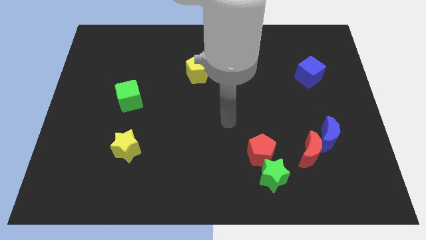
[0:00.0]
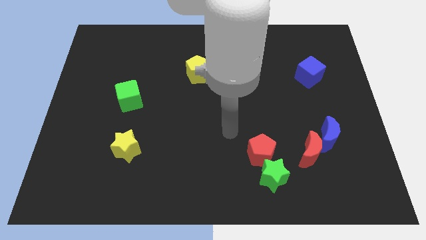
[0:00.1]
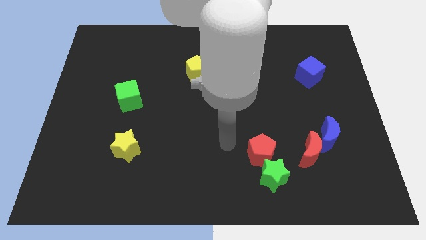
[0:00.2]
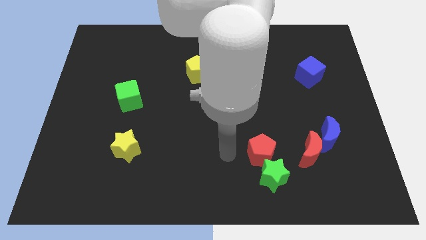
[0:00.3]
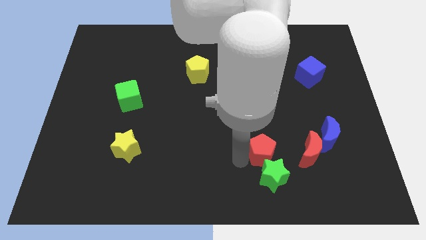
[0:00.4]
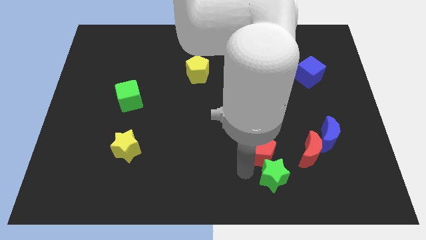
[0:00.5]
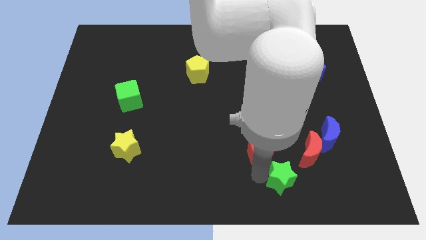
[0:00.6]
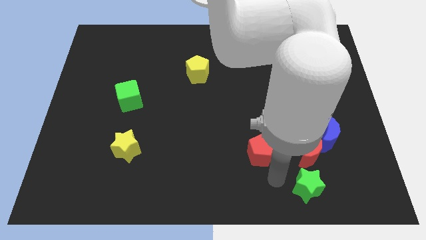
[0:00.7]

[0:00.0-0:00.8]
move the red pentagon away from the green star

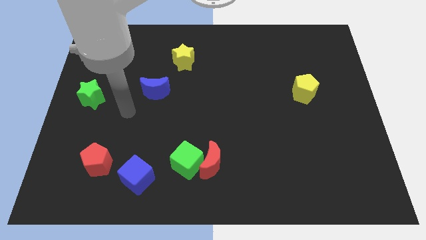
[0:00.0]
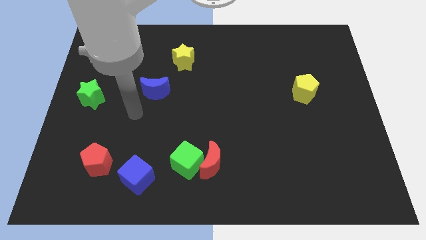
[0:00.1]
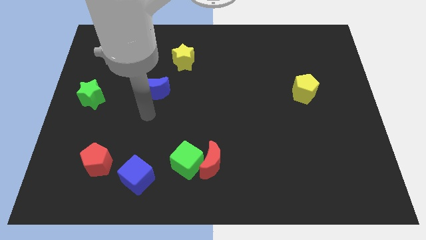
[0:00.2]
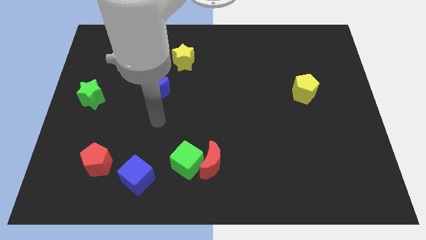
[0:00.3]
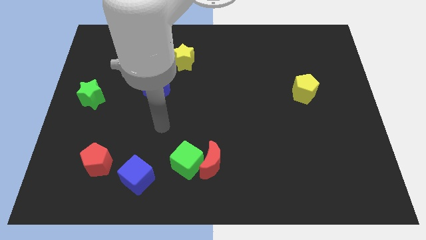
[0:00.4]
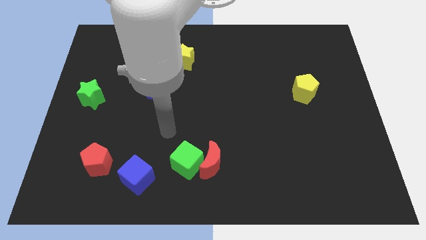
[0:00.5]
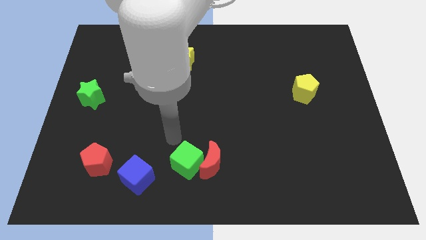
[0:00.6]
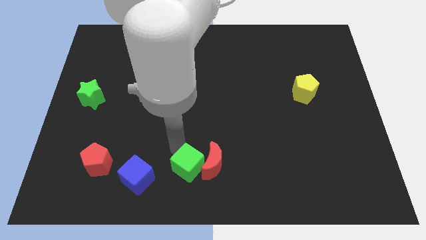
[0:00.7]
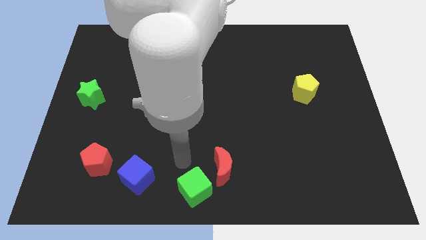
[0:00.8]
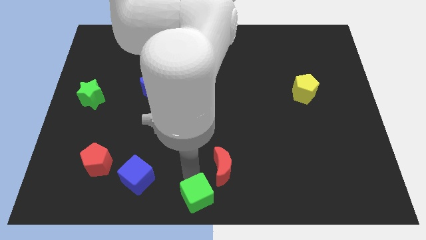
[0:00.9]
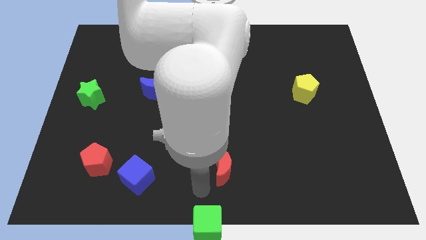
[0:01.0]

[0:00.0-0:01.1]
move the red moon away from the green cube

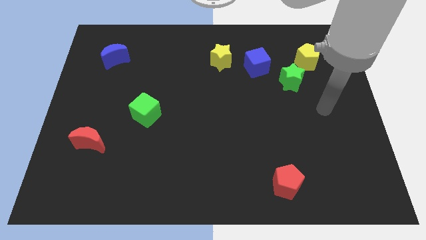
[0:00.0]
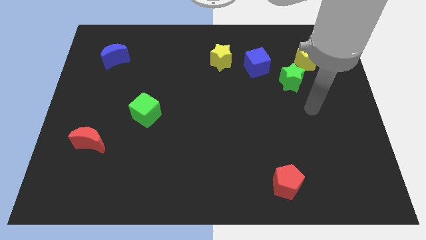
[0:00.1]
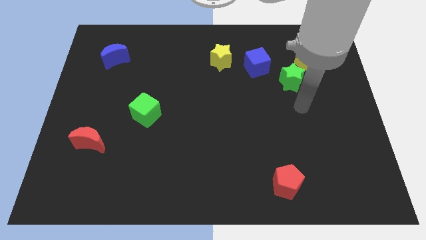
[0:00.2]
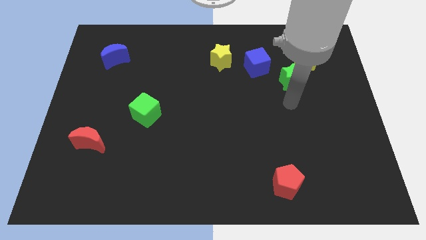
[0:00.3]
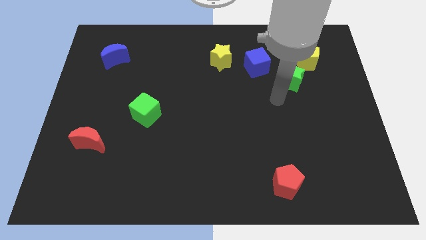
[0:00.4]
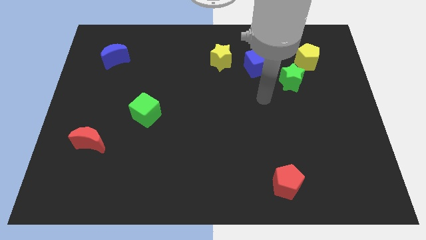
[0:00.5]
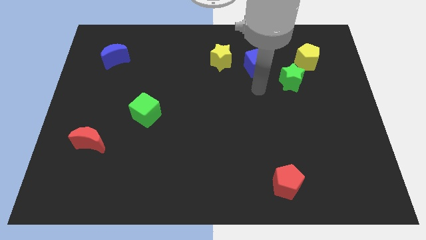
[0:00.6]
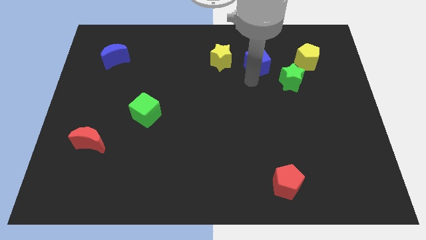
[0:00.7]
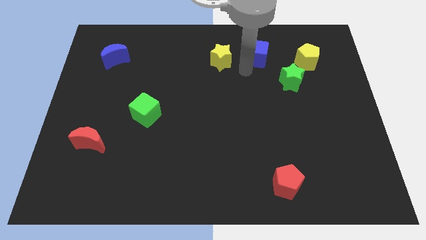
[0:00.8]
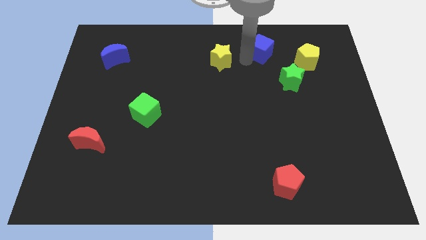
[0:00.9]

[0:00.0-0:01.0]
move the yellow star away from the blue cube

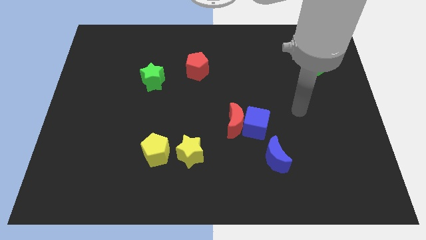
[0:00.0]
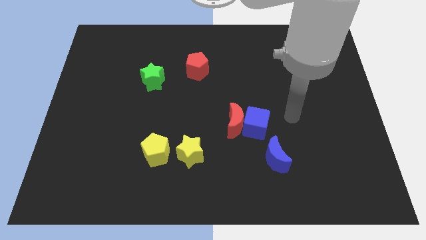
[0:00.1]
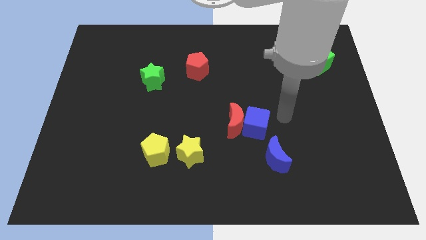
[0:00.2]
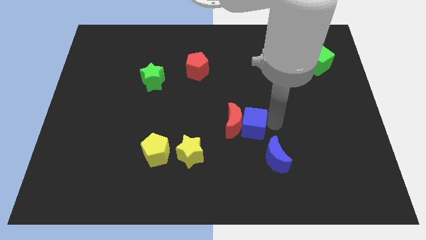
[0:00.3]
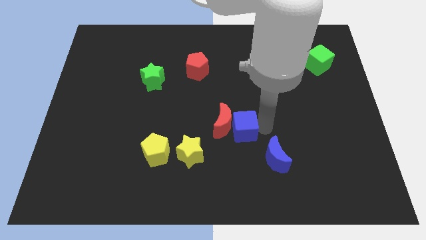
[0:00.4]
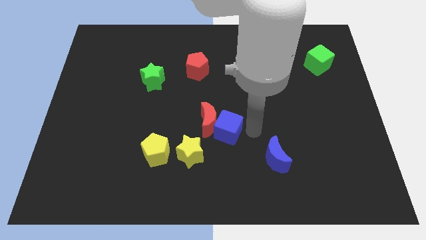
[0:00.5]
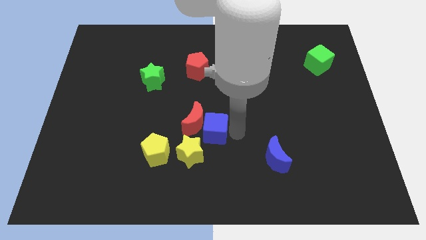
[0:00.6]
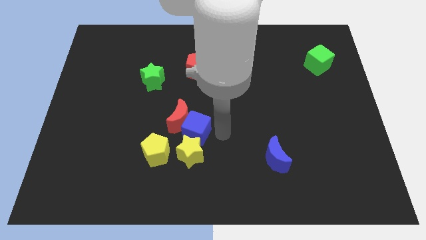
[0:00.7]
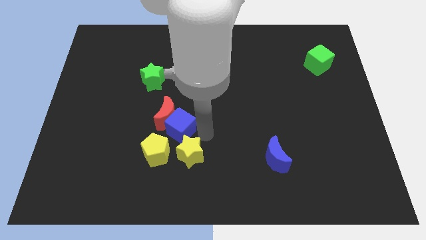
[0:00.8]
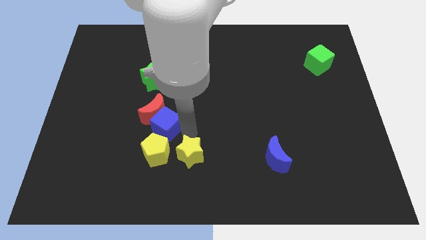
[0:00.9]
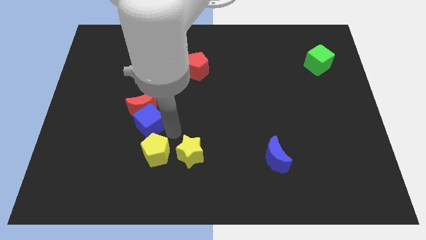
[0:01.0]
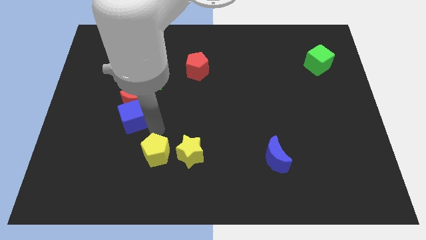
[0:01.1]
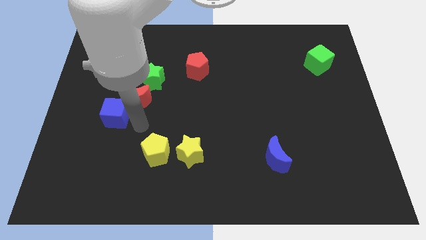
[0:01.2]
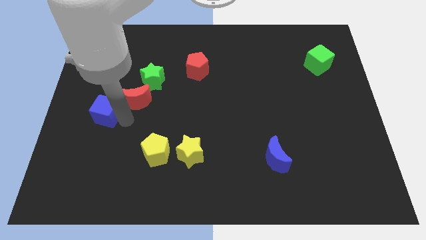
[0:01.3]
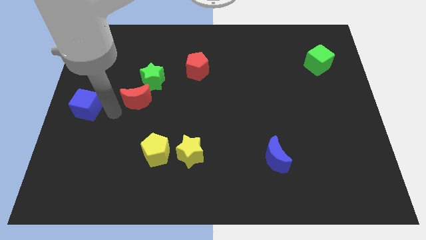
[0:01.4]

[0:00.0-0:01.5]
separate the red moon from the blue cube

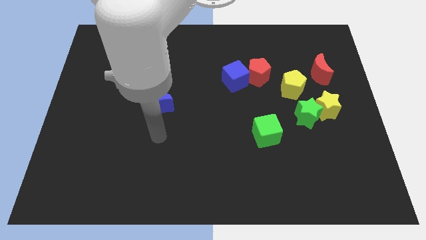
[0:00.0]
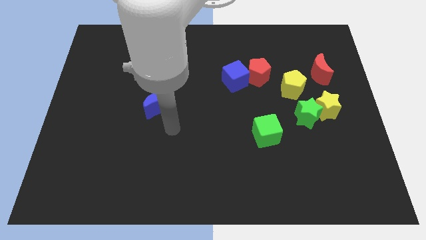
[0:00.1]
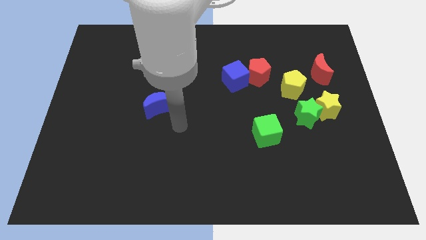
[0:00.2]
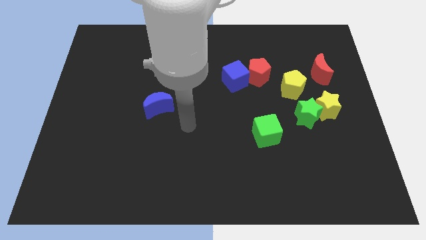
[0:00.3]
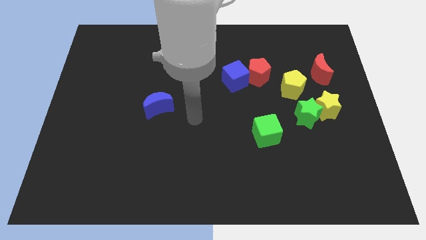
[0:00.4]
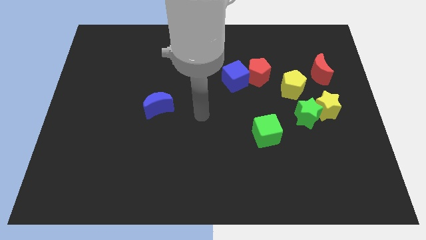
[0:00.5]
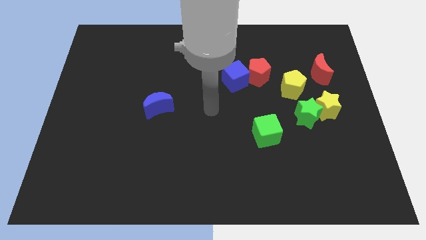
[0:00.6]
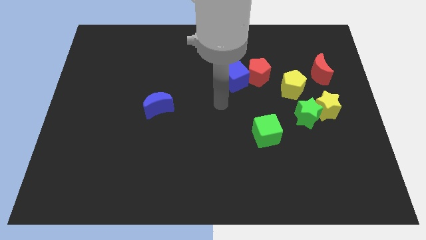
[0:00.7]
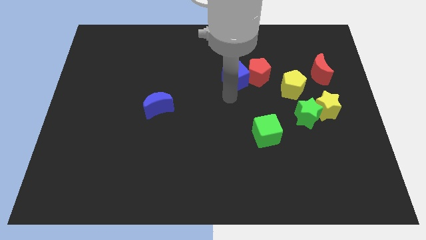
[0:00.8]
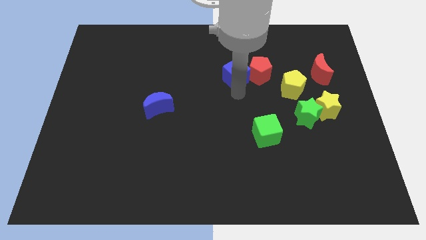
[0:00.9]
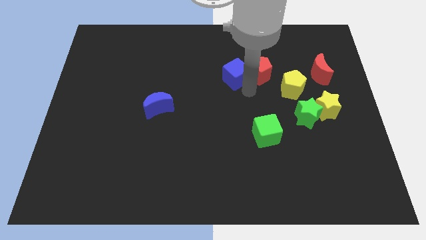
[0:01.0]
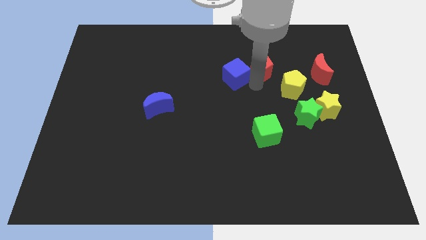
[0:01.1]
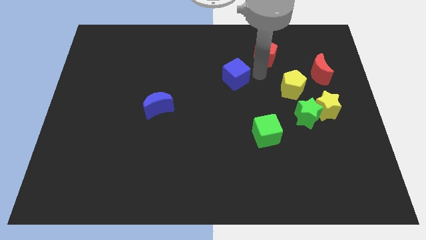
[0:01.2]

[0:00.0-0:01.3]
separate the blue cube from the red pentagon

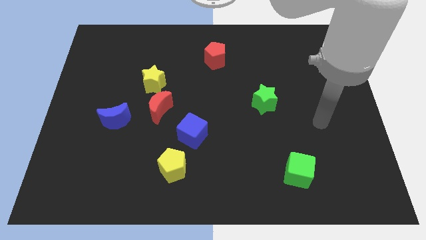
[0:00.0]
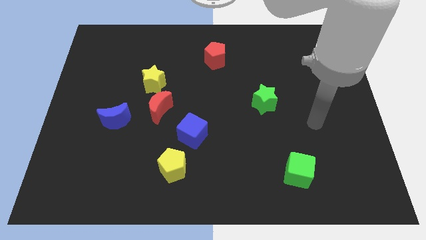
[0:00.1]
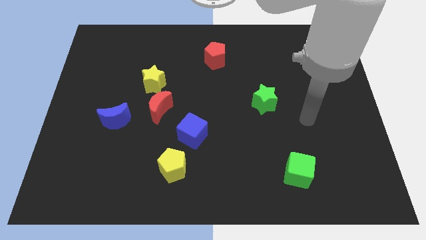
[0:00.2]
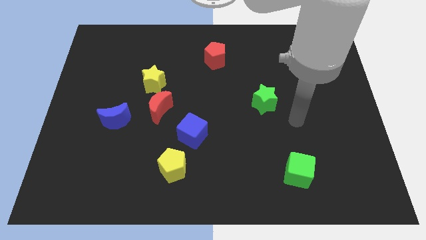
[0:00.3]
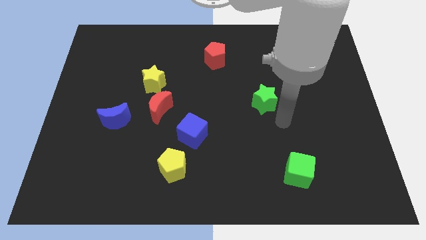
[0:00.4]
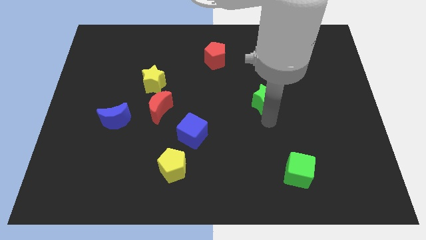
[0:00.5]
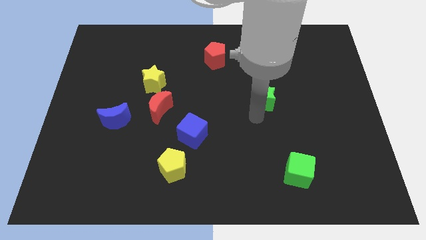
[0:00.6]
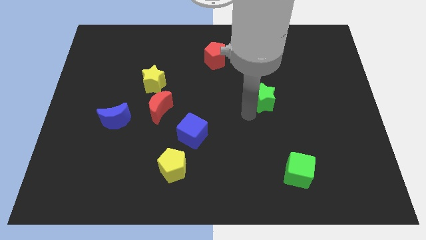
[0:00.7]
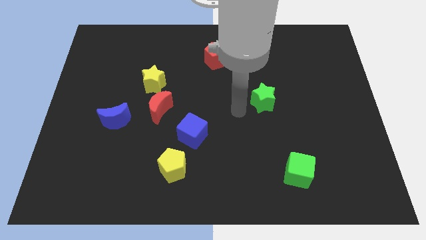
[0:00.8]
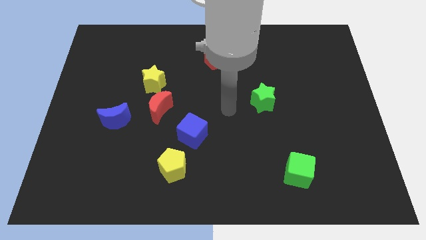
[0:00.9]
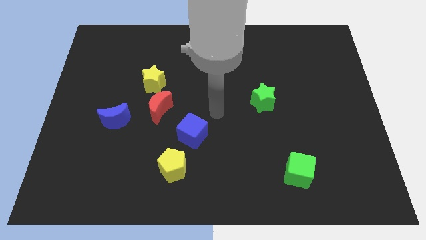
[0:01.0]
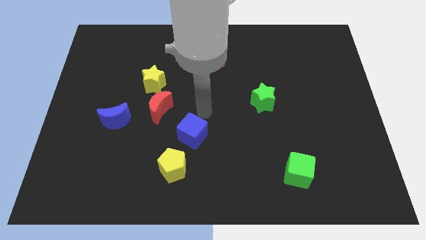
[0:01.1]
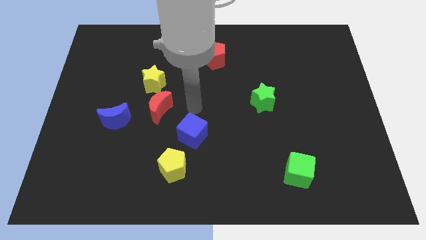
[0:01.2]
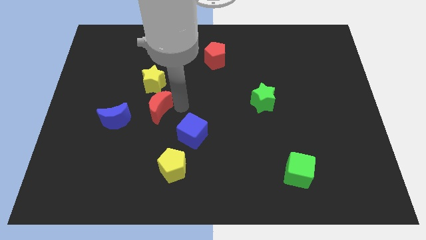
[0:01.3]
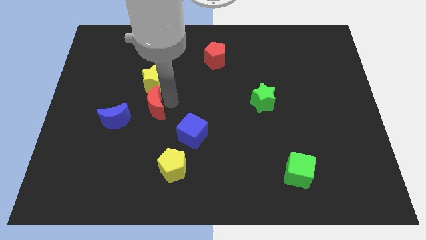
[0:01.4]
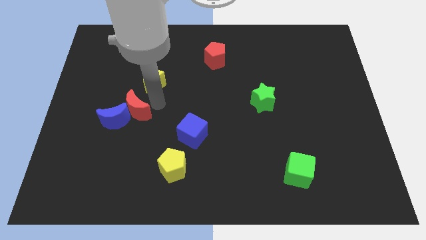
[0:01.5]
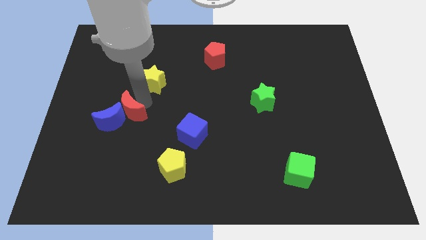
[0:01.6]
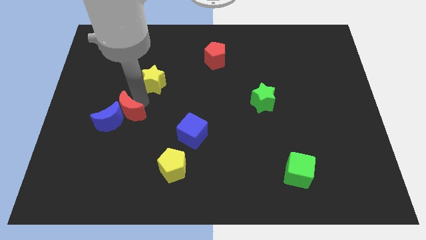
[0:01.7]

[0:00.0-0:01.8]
separate the yellow star from the red moon

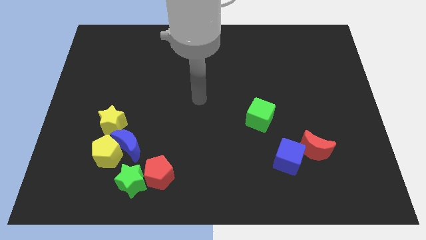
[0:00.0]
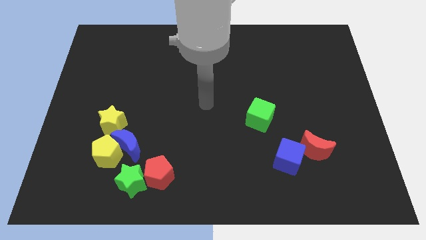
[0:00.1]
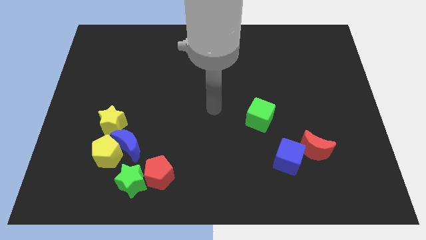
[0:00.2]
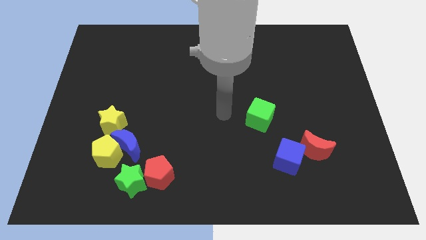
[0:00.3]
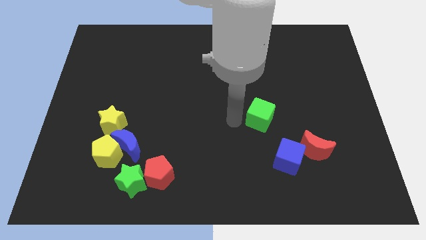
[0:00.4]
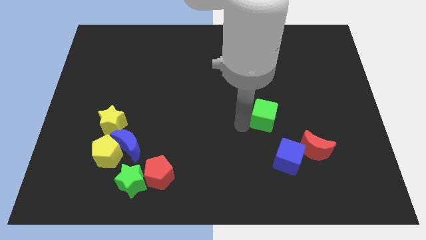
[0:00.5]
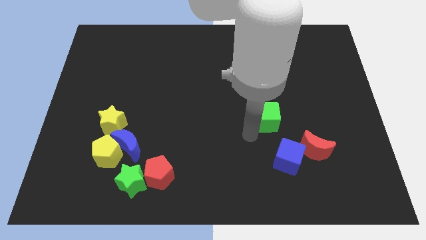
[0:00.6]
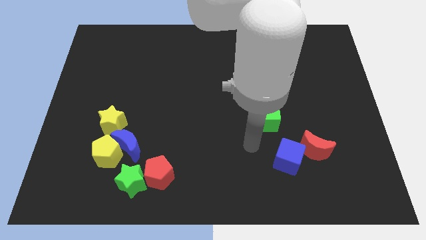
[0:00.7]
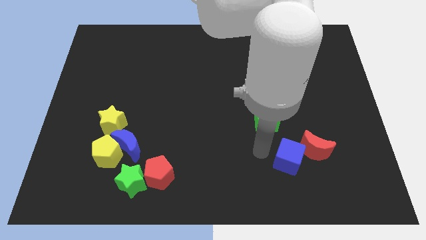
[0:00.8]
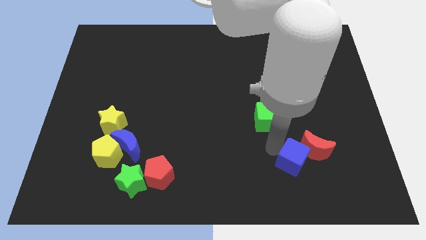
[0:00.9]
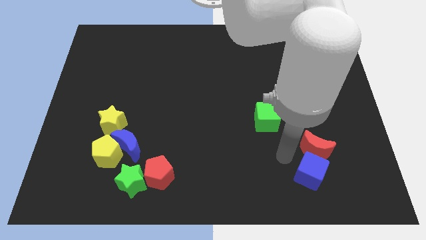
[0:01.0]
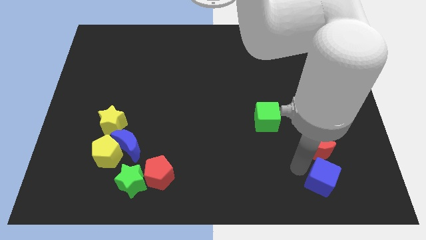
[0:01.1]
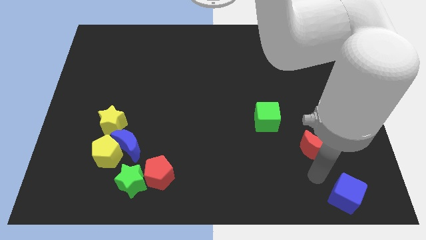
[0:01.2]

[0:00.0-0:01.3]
move the red moon away from the blue cube

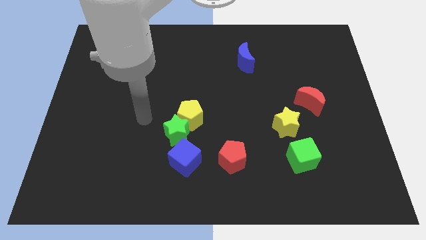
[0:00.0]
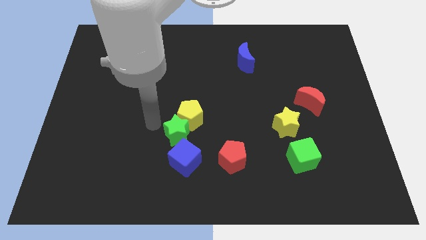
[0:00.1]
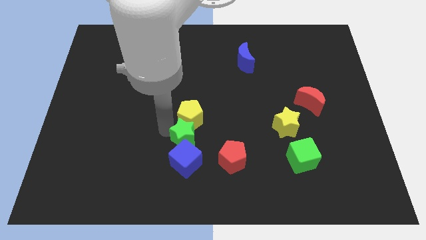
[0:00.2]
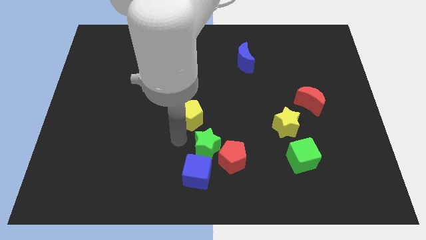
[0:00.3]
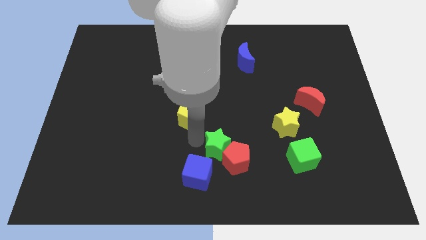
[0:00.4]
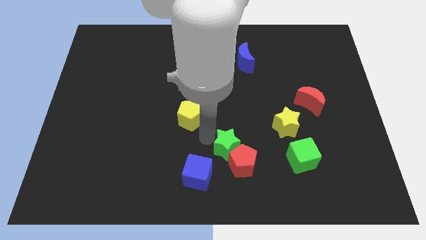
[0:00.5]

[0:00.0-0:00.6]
move the yellow pentagon away from the green star
